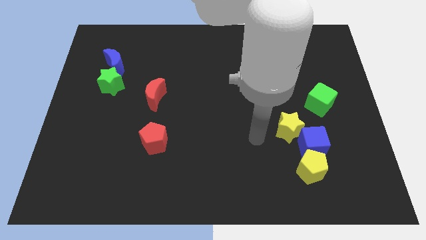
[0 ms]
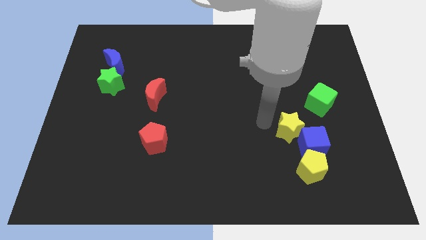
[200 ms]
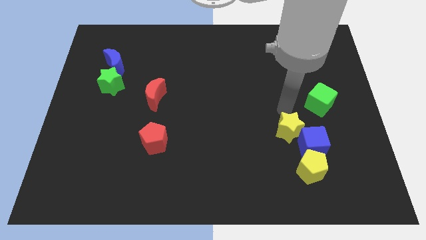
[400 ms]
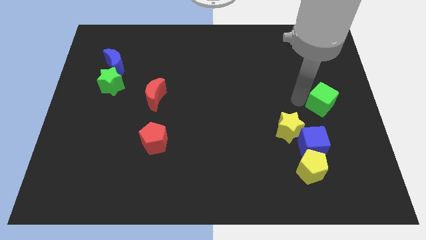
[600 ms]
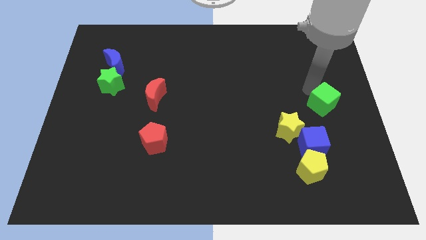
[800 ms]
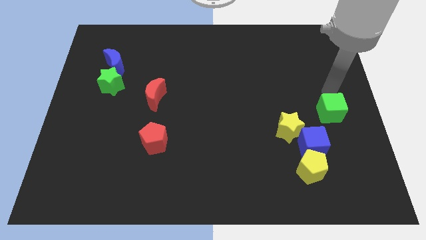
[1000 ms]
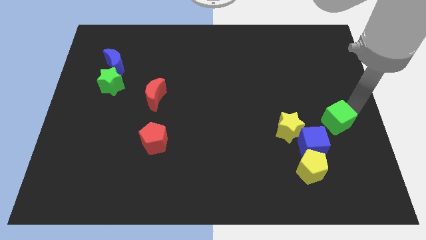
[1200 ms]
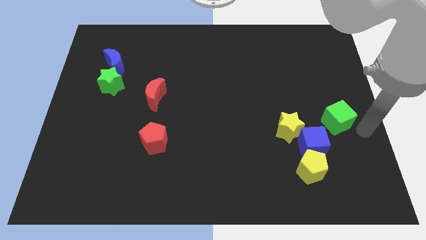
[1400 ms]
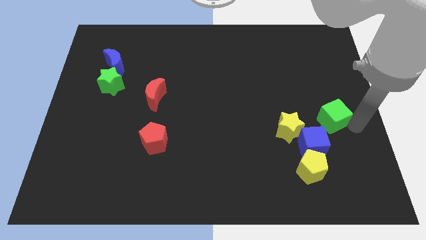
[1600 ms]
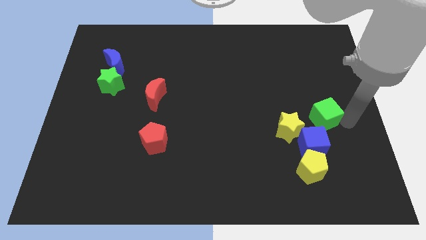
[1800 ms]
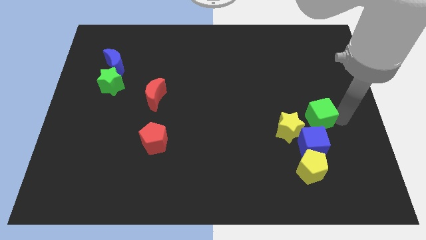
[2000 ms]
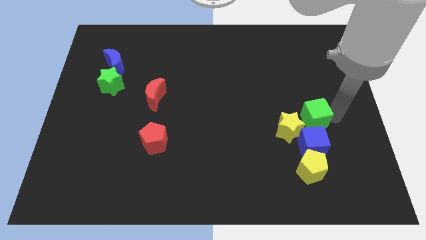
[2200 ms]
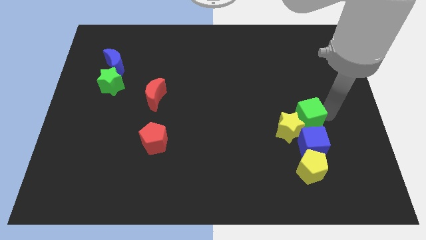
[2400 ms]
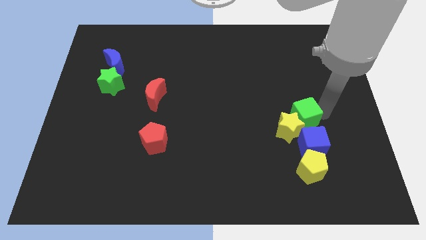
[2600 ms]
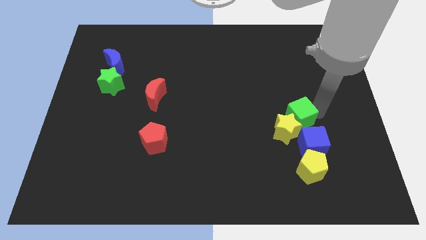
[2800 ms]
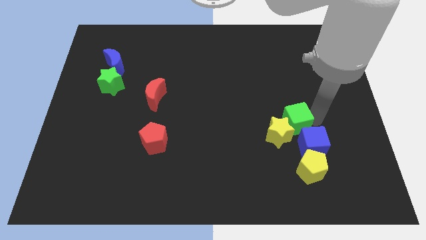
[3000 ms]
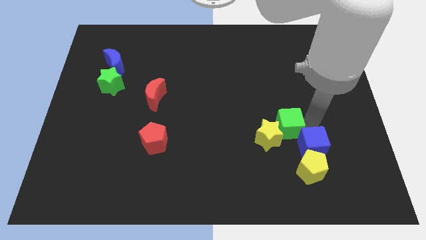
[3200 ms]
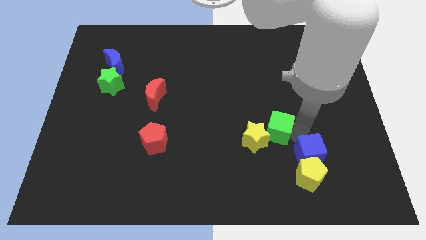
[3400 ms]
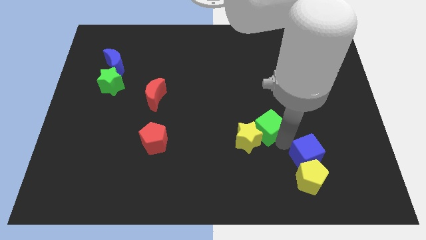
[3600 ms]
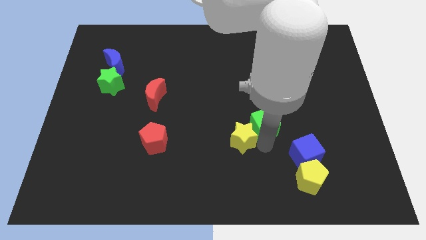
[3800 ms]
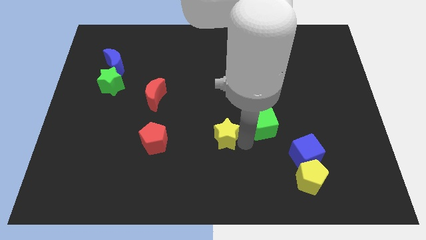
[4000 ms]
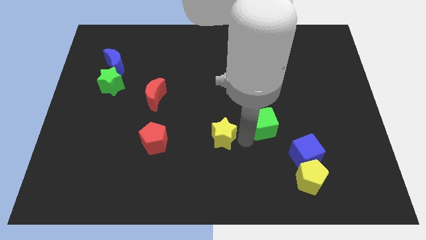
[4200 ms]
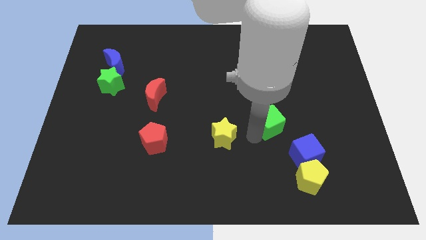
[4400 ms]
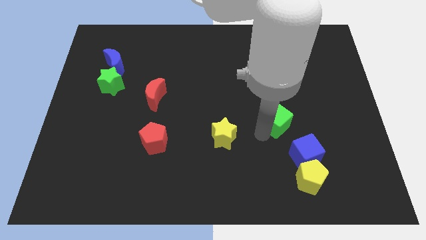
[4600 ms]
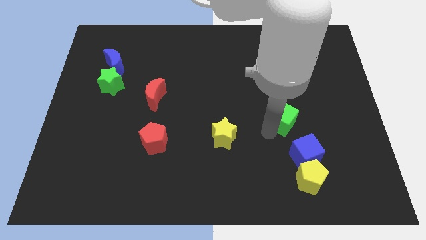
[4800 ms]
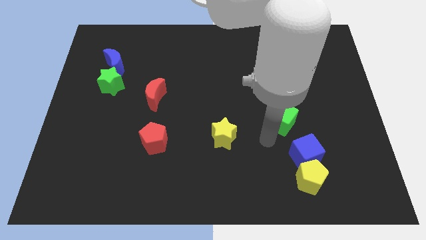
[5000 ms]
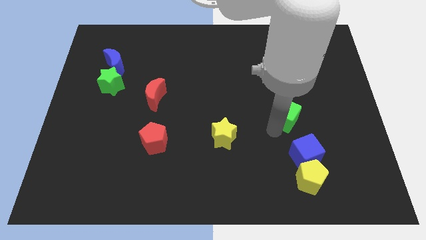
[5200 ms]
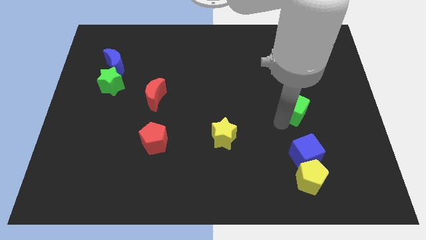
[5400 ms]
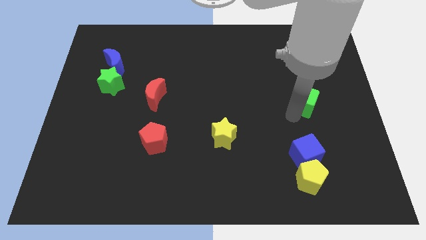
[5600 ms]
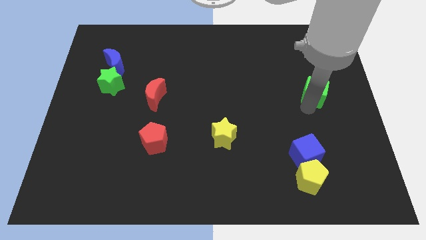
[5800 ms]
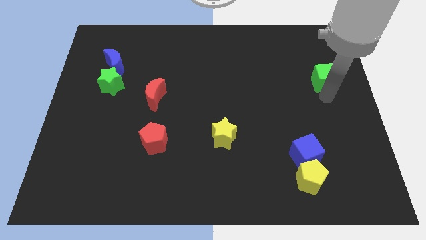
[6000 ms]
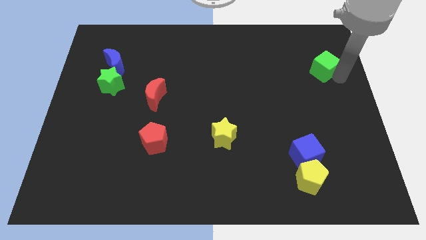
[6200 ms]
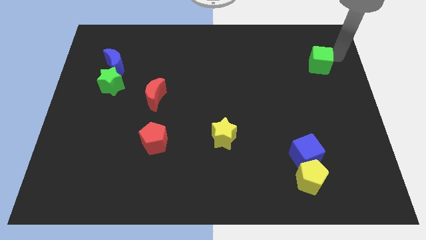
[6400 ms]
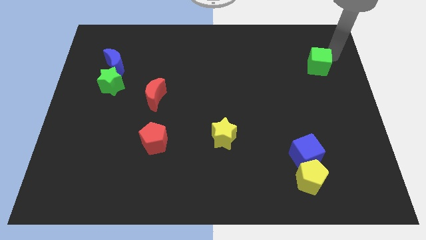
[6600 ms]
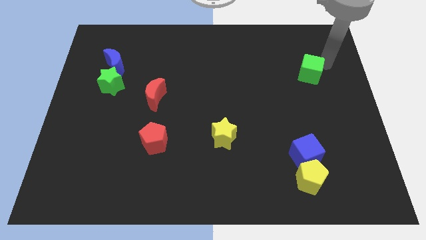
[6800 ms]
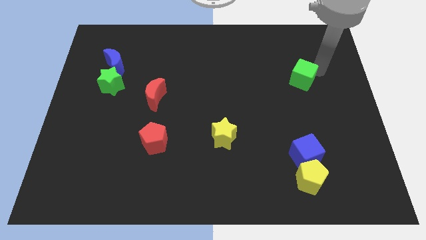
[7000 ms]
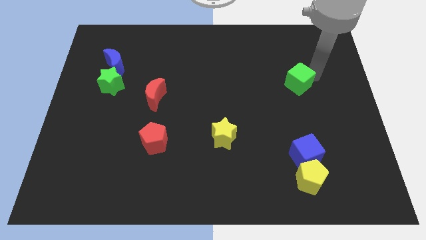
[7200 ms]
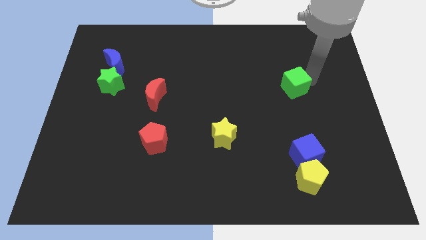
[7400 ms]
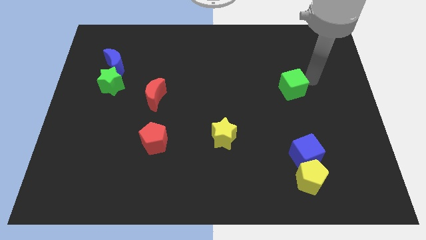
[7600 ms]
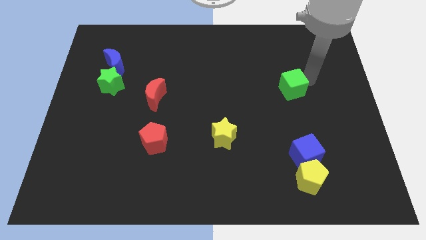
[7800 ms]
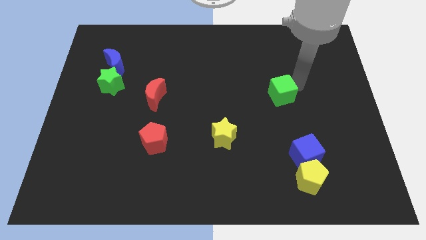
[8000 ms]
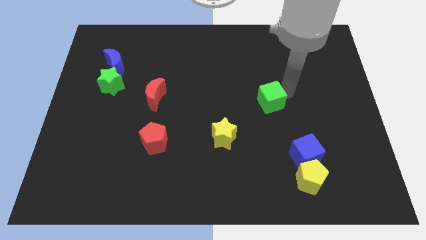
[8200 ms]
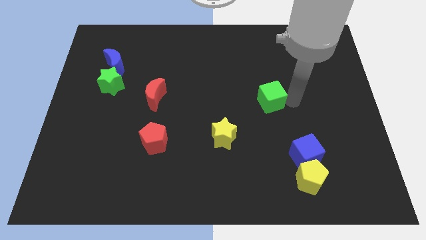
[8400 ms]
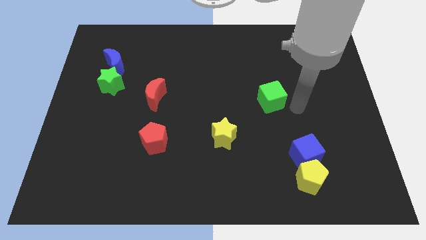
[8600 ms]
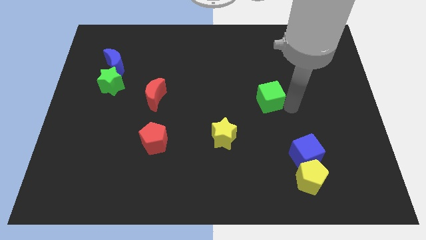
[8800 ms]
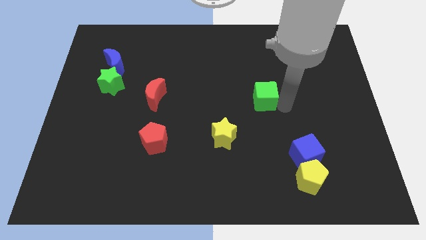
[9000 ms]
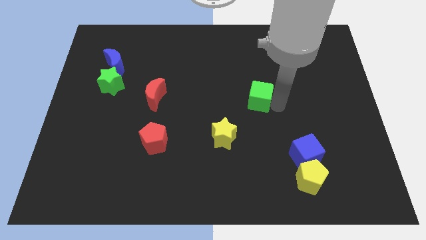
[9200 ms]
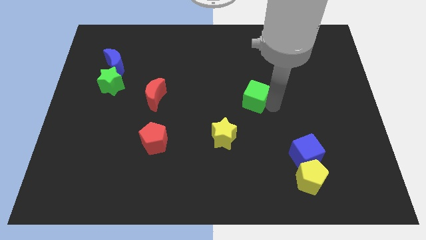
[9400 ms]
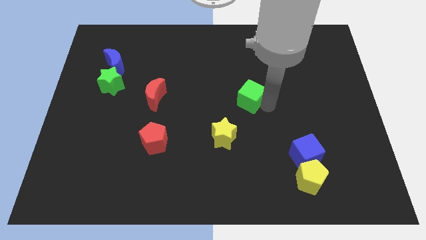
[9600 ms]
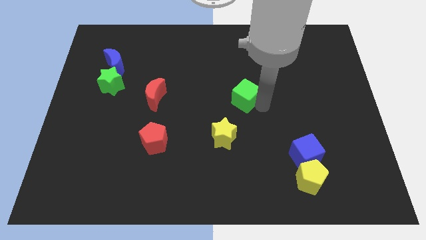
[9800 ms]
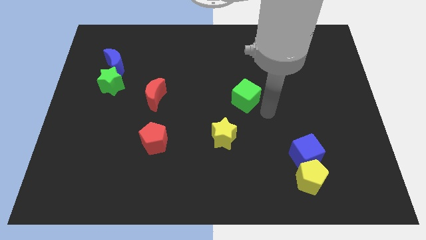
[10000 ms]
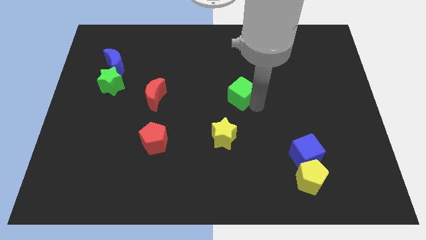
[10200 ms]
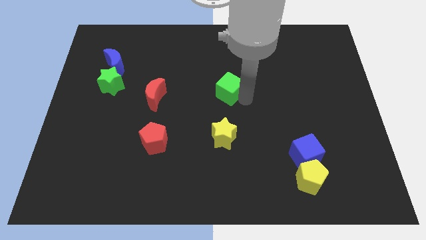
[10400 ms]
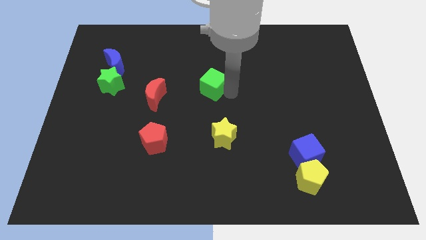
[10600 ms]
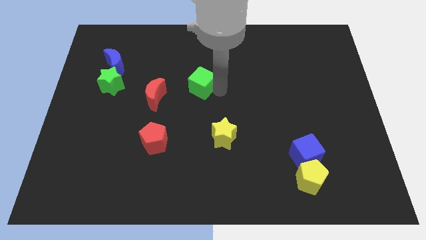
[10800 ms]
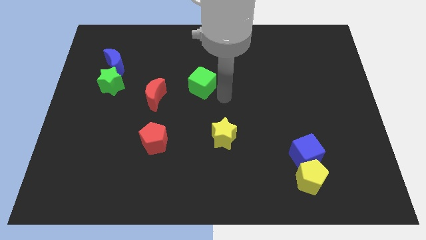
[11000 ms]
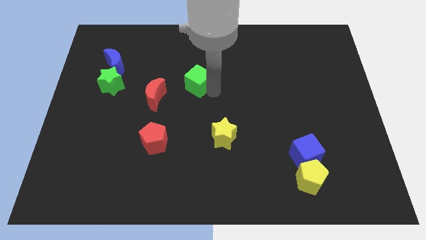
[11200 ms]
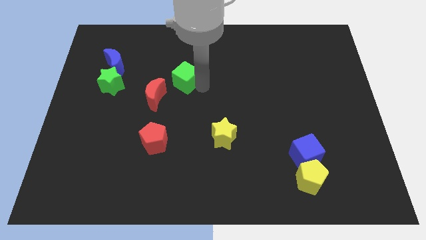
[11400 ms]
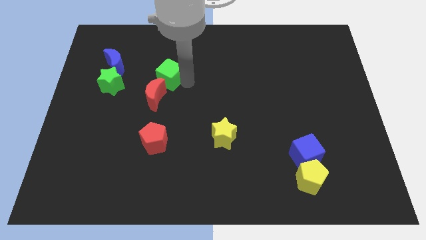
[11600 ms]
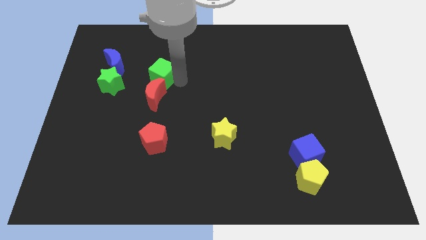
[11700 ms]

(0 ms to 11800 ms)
put the green cube to the right side of the blue moon
